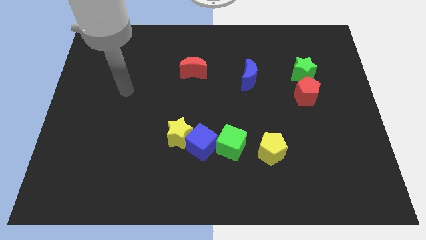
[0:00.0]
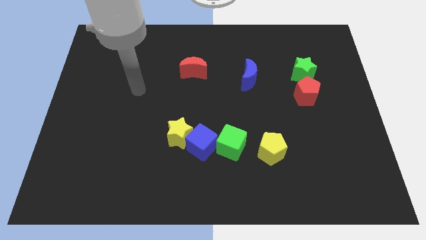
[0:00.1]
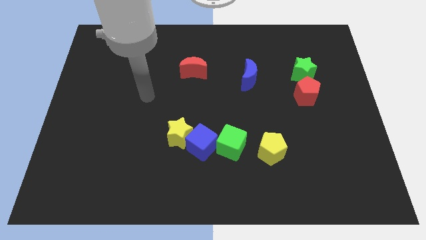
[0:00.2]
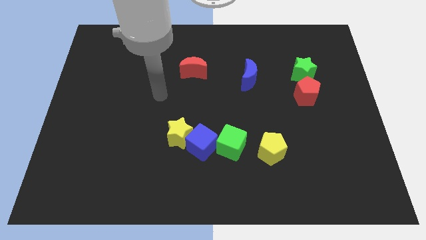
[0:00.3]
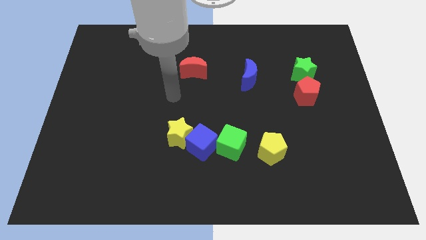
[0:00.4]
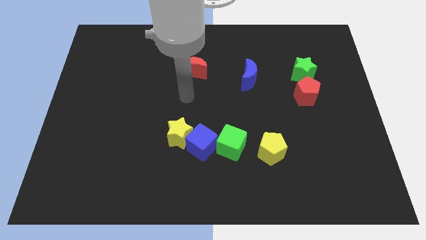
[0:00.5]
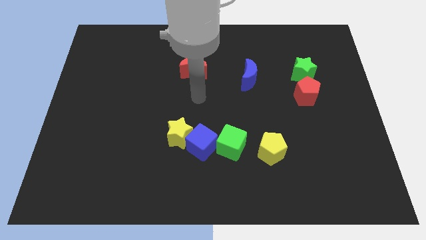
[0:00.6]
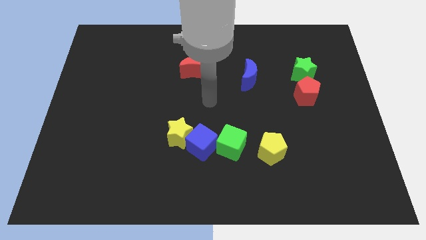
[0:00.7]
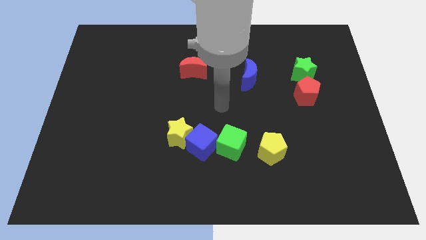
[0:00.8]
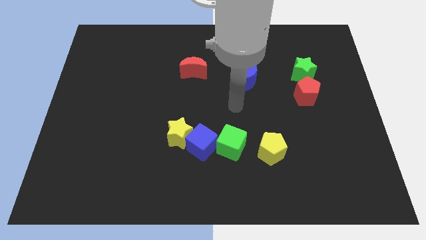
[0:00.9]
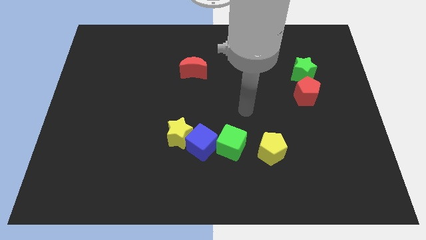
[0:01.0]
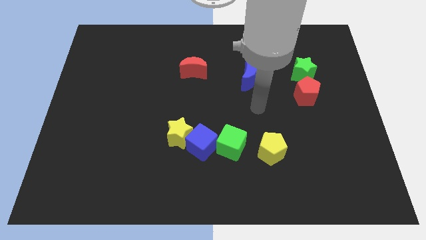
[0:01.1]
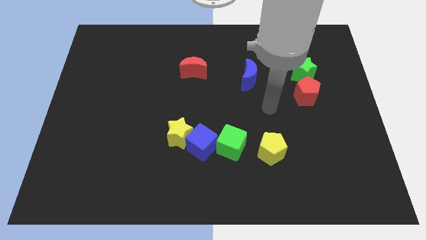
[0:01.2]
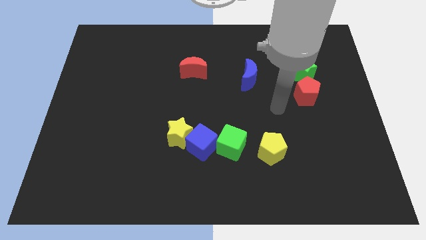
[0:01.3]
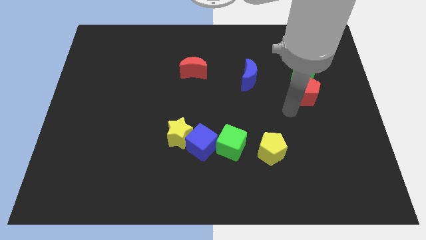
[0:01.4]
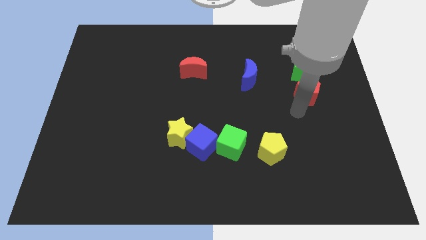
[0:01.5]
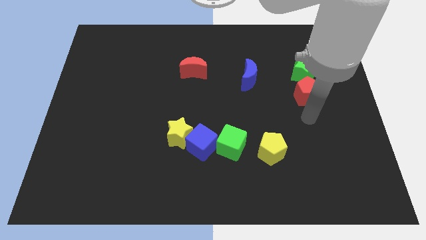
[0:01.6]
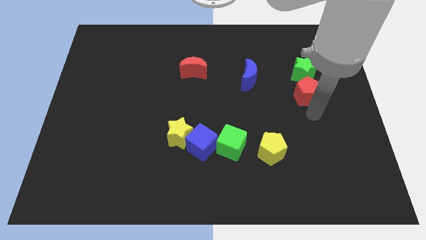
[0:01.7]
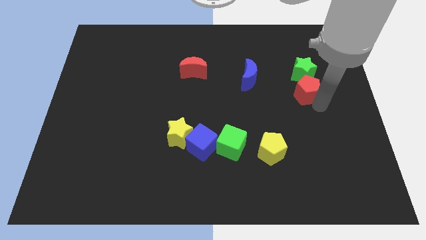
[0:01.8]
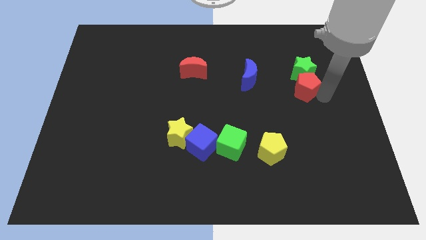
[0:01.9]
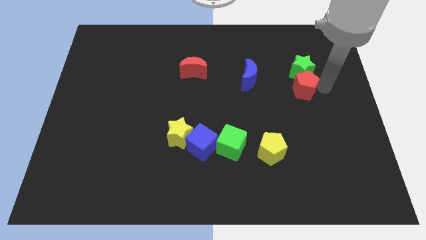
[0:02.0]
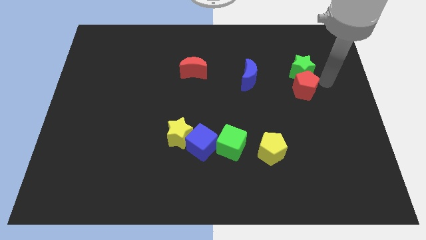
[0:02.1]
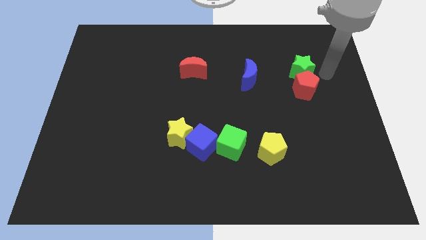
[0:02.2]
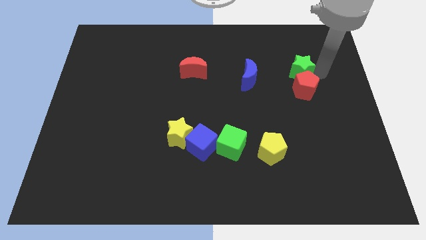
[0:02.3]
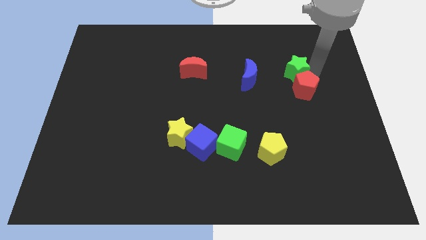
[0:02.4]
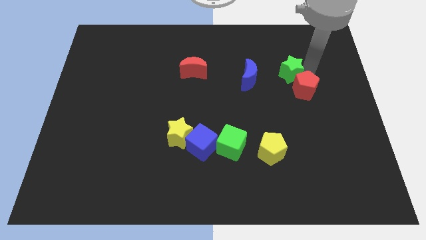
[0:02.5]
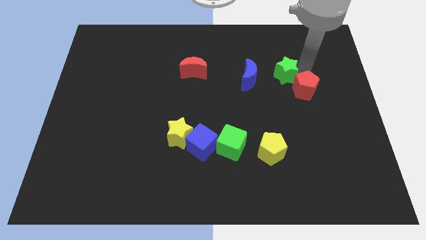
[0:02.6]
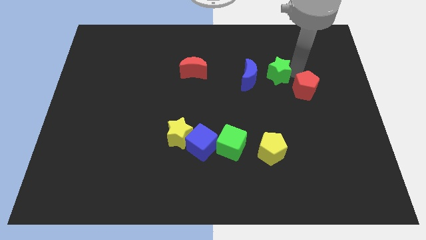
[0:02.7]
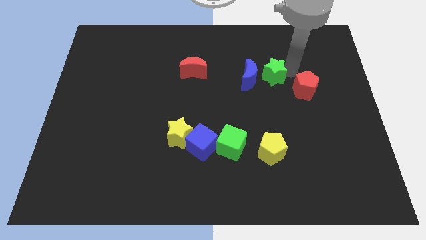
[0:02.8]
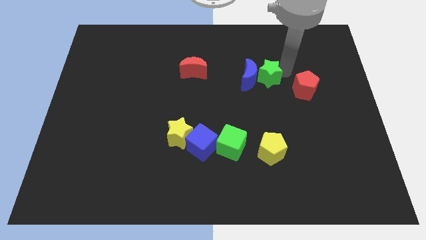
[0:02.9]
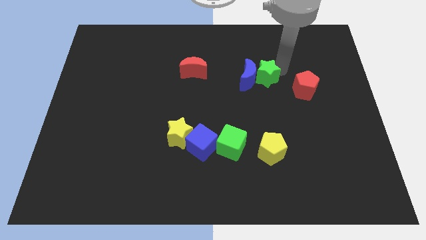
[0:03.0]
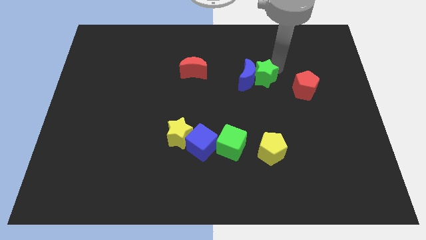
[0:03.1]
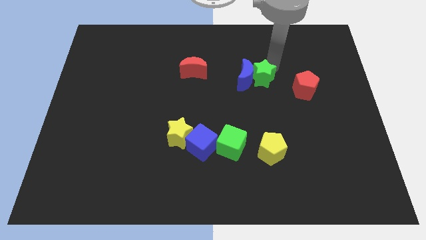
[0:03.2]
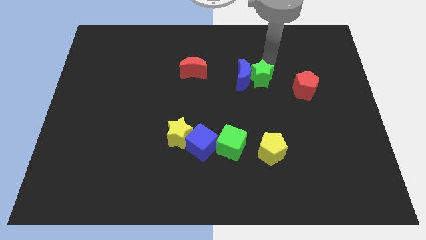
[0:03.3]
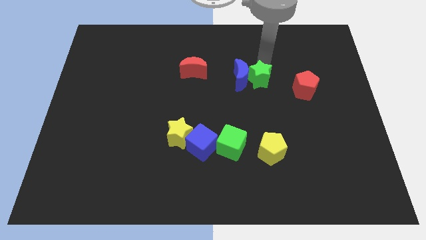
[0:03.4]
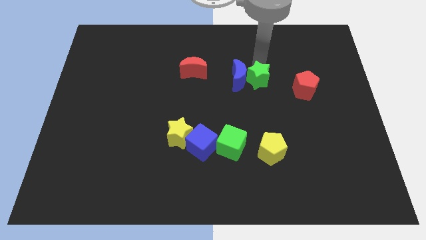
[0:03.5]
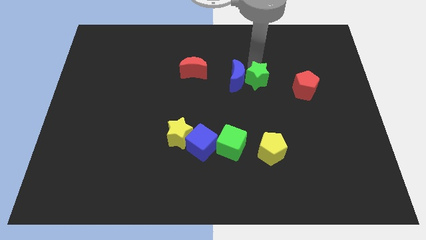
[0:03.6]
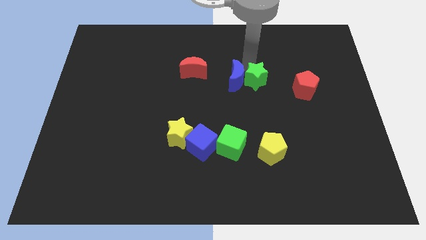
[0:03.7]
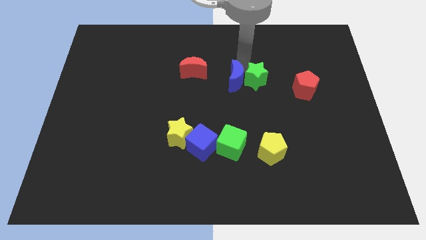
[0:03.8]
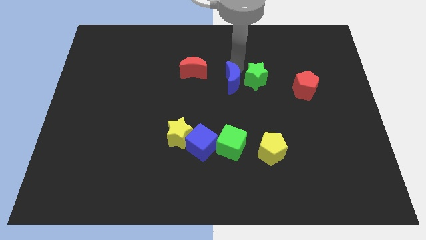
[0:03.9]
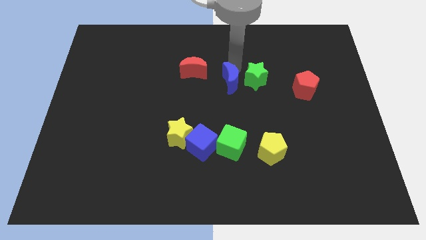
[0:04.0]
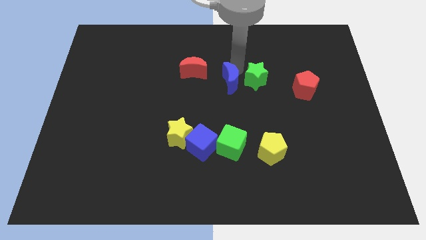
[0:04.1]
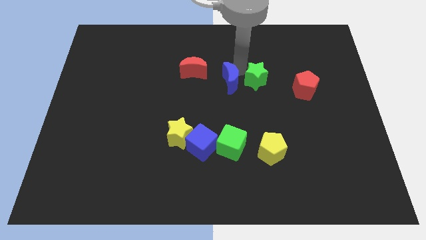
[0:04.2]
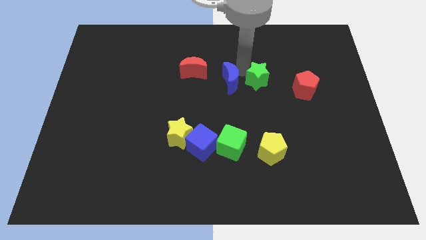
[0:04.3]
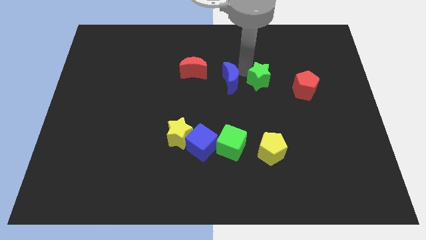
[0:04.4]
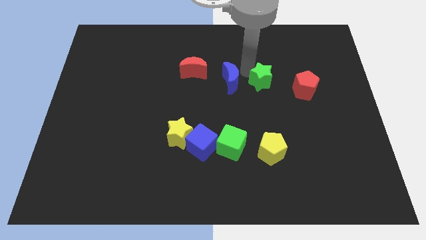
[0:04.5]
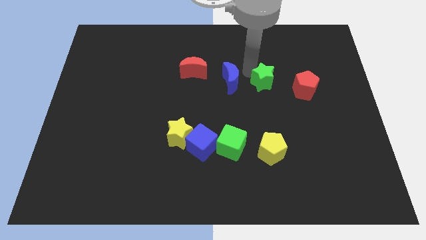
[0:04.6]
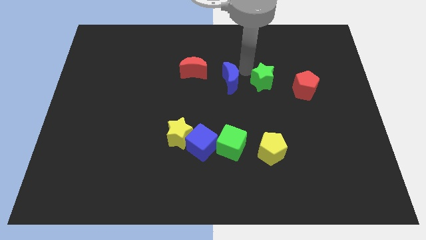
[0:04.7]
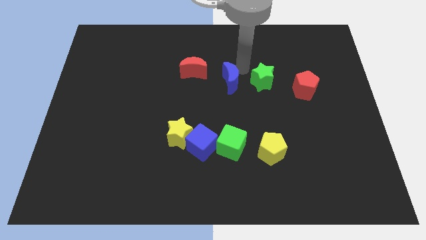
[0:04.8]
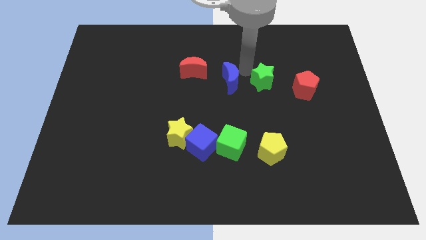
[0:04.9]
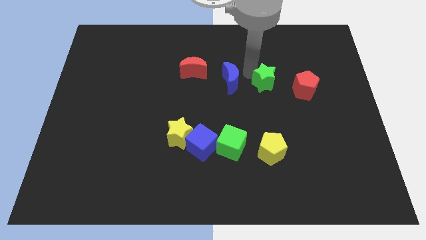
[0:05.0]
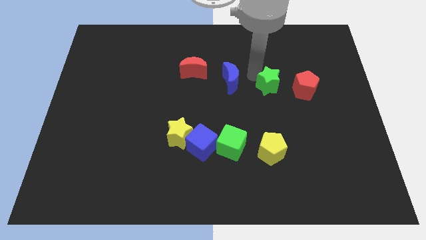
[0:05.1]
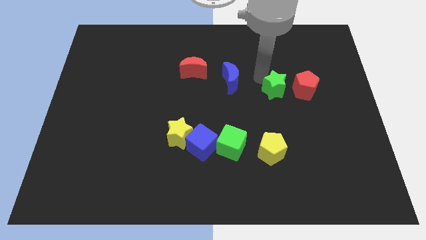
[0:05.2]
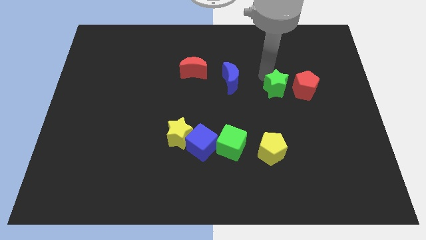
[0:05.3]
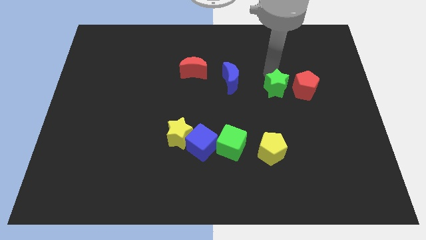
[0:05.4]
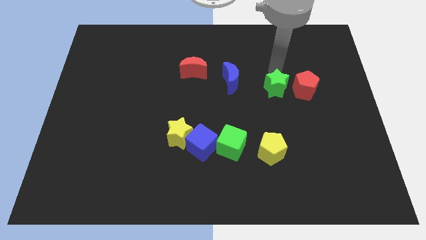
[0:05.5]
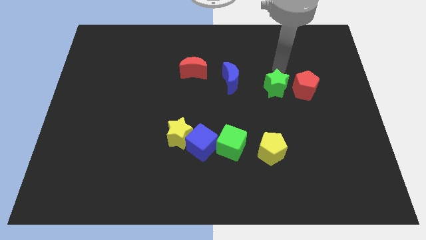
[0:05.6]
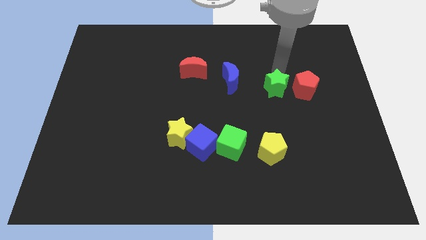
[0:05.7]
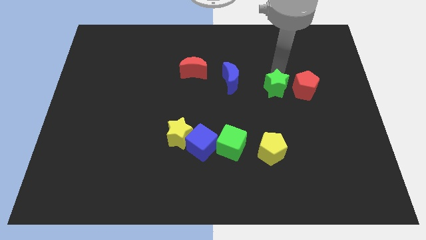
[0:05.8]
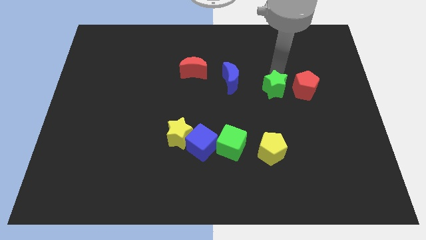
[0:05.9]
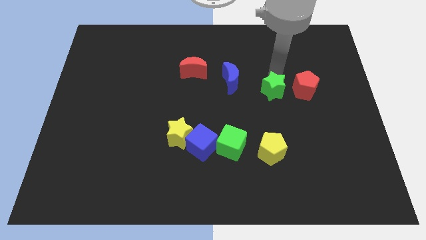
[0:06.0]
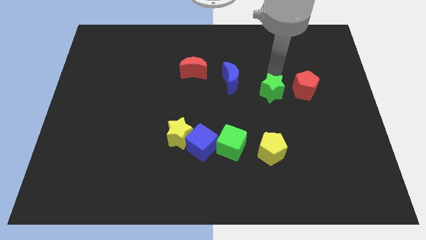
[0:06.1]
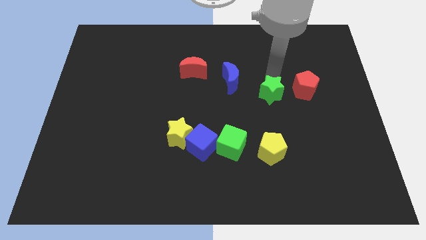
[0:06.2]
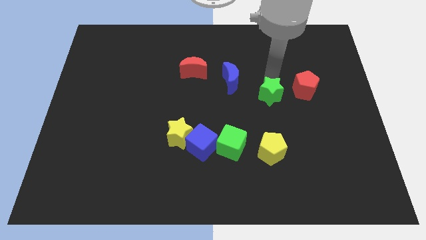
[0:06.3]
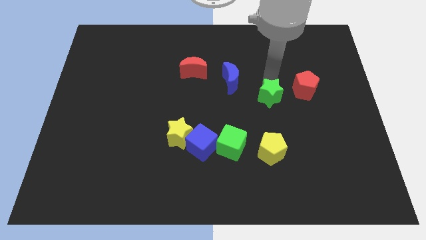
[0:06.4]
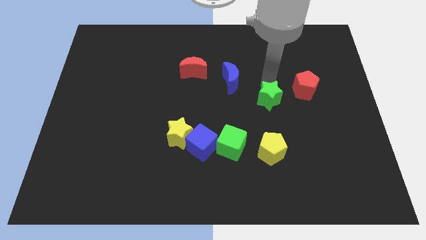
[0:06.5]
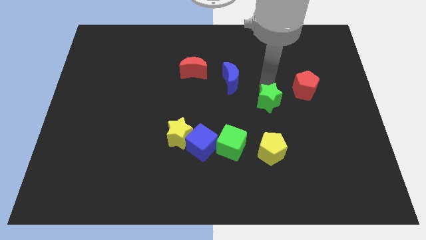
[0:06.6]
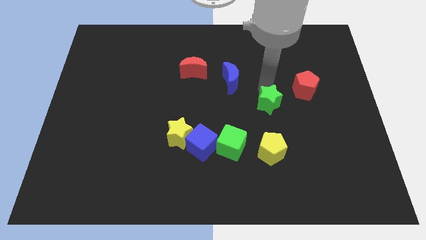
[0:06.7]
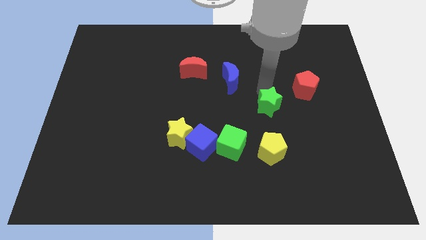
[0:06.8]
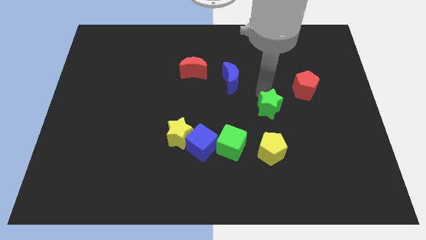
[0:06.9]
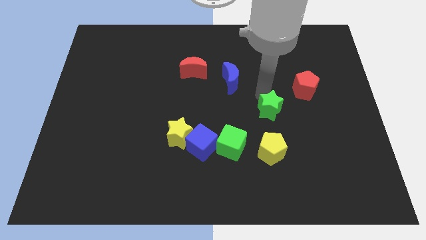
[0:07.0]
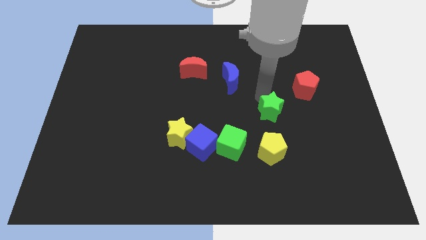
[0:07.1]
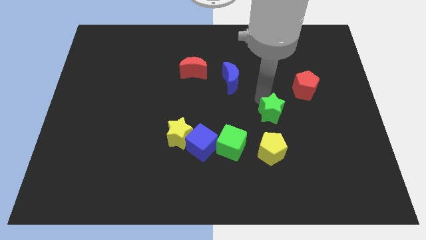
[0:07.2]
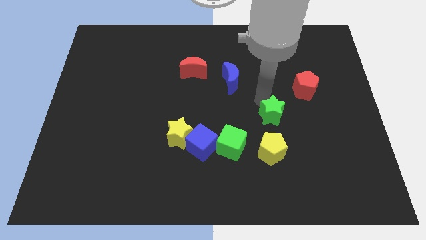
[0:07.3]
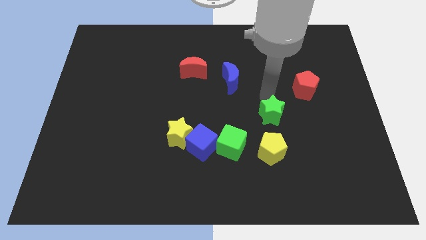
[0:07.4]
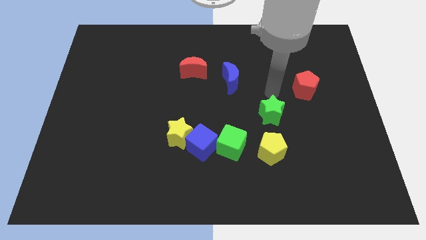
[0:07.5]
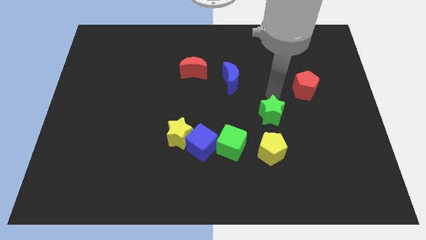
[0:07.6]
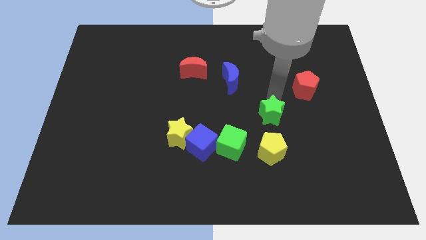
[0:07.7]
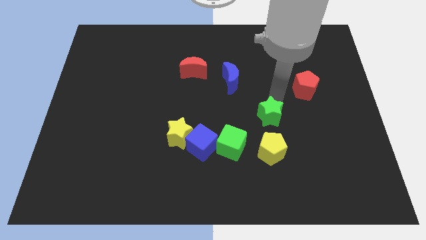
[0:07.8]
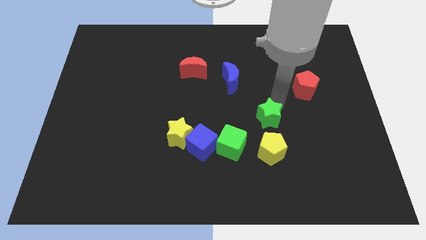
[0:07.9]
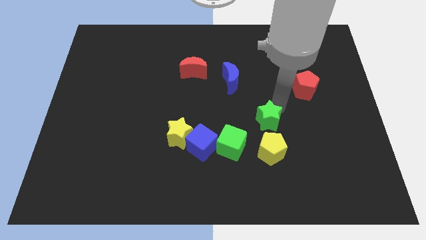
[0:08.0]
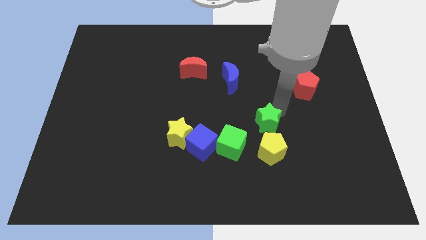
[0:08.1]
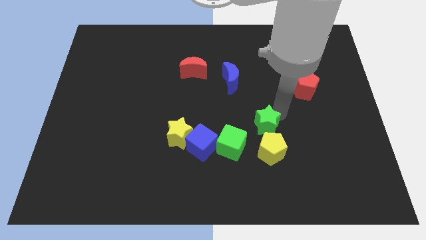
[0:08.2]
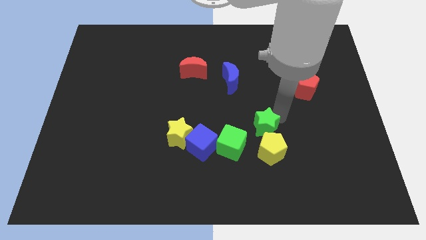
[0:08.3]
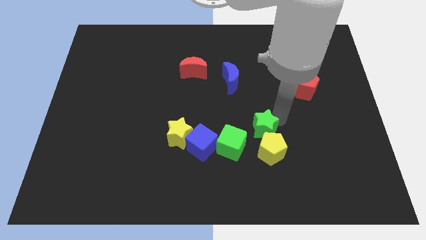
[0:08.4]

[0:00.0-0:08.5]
put the green star to the yellow pentagon
